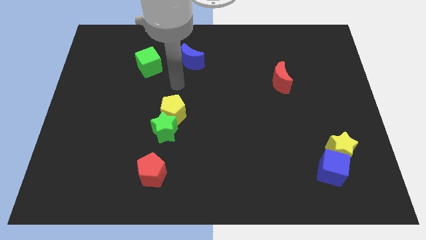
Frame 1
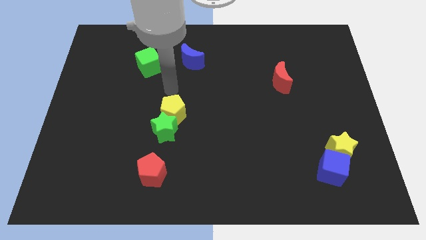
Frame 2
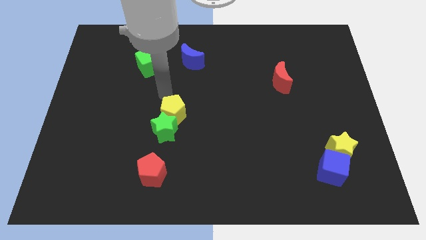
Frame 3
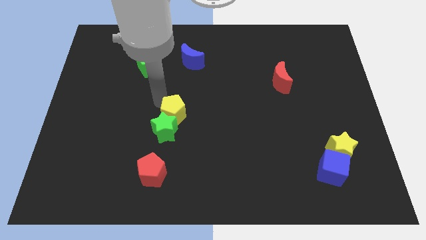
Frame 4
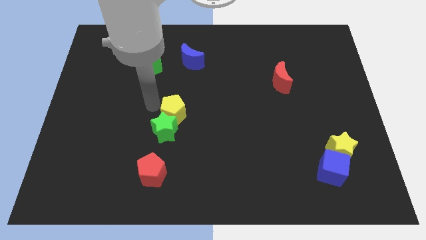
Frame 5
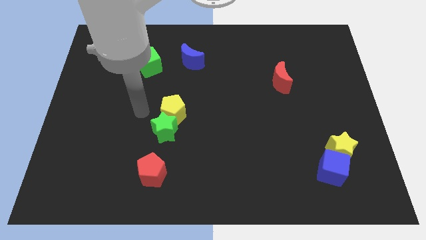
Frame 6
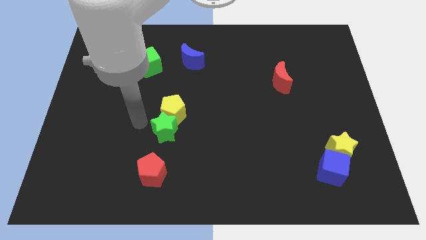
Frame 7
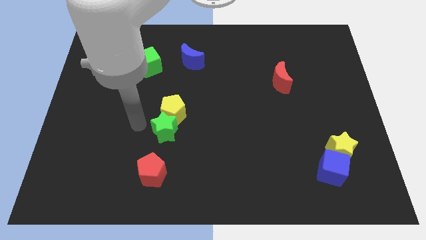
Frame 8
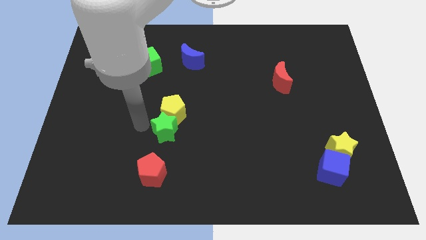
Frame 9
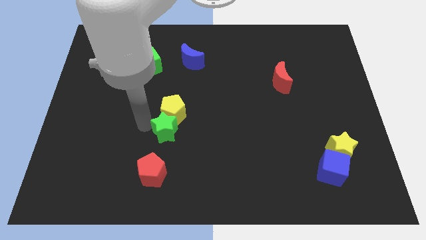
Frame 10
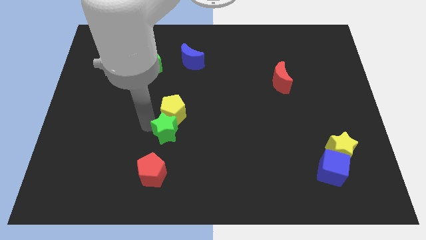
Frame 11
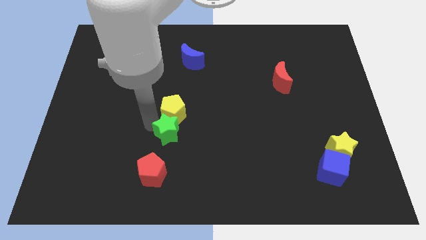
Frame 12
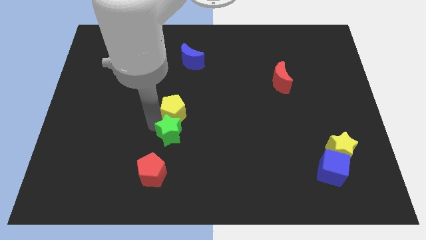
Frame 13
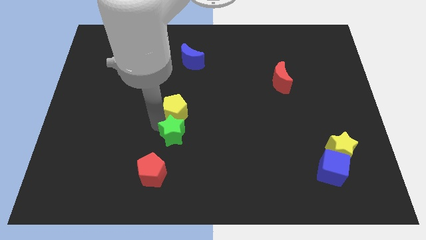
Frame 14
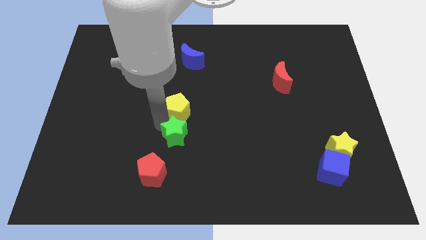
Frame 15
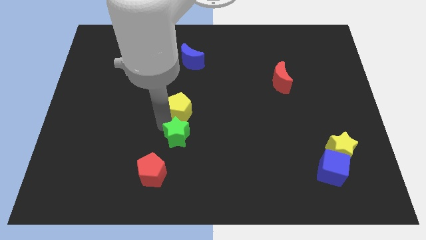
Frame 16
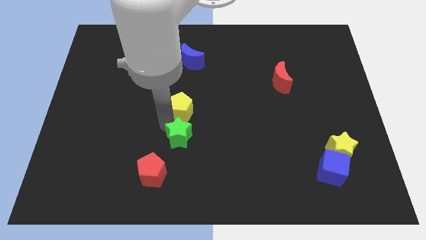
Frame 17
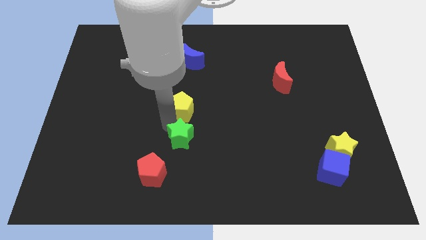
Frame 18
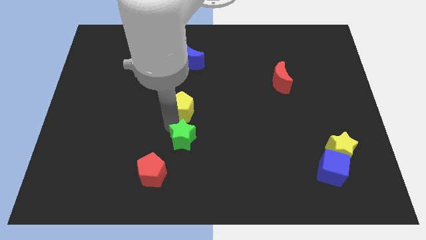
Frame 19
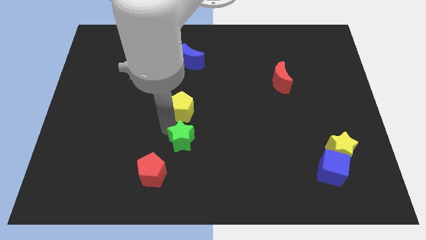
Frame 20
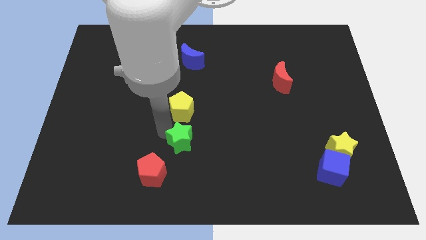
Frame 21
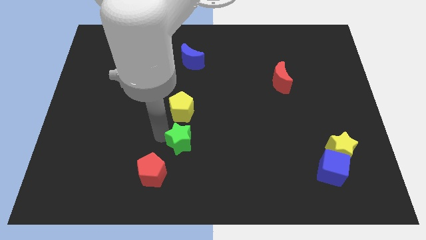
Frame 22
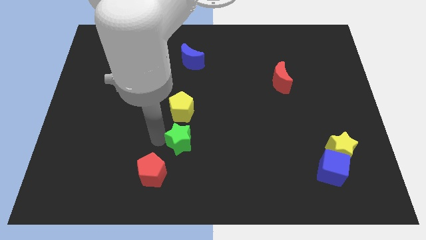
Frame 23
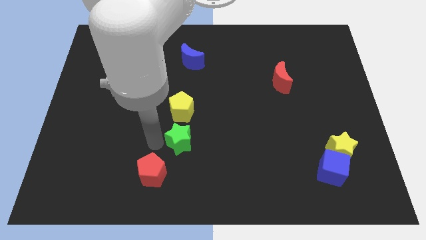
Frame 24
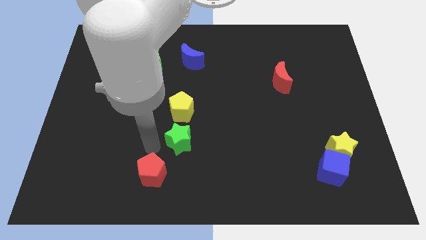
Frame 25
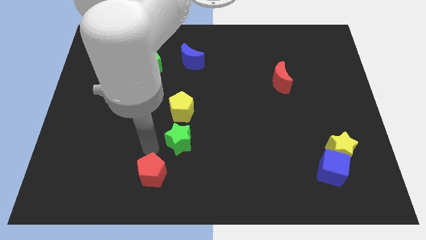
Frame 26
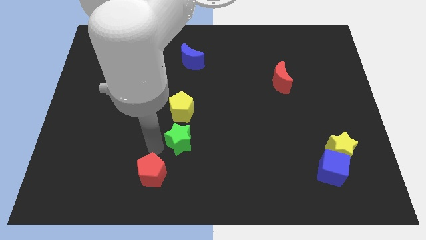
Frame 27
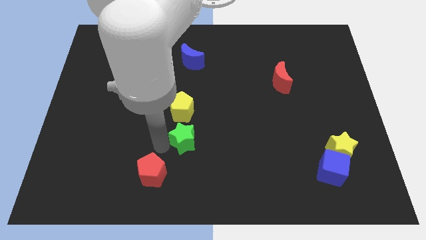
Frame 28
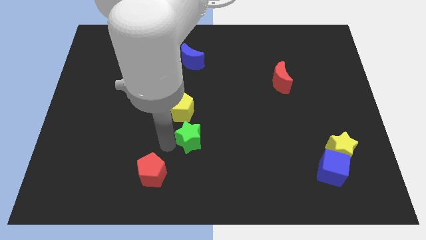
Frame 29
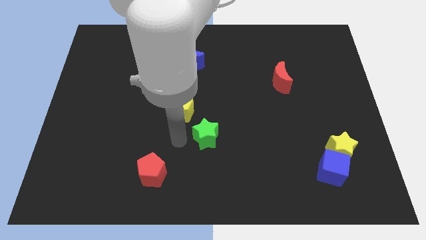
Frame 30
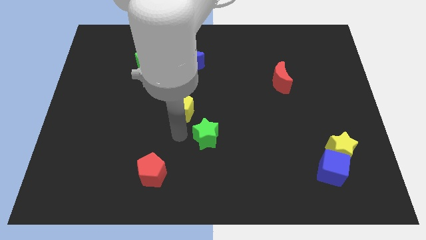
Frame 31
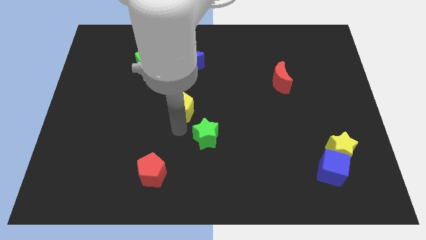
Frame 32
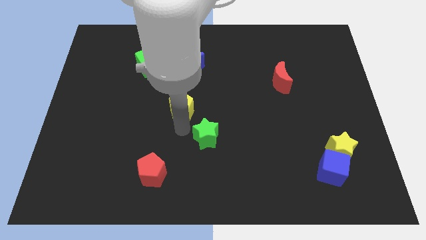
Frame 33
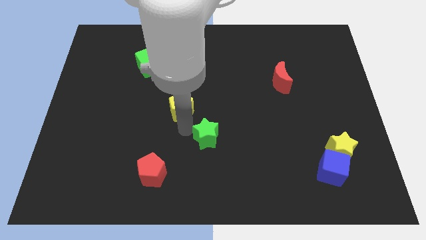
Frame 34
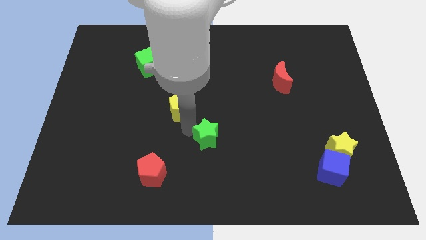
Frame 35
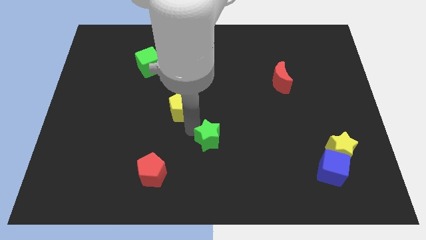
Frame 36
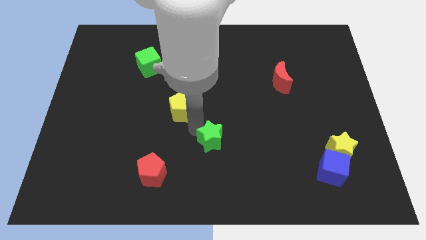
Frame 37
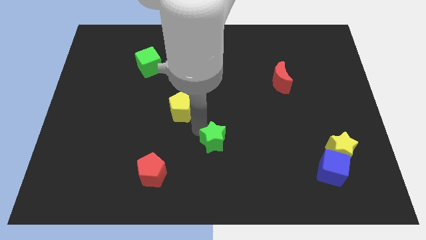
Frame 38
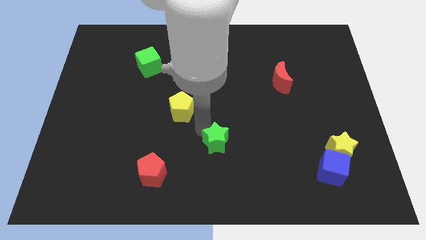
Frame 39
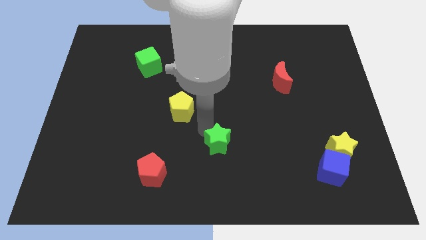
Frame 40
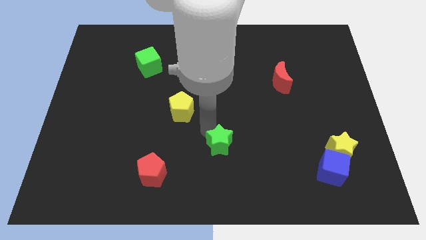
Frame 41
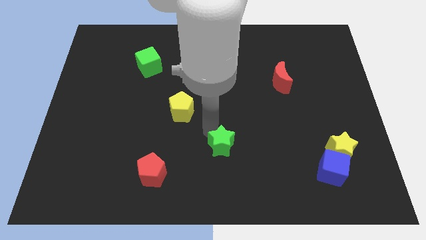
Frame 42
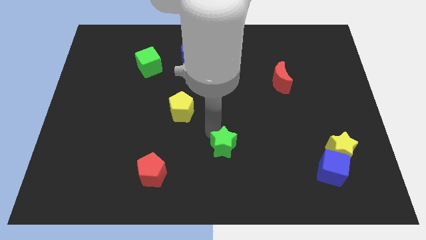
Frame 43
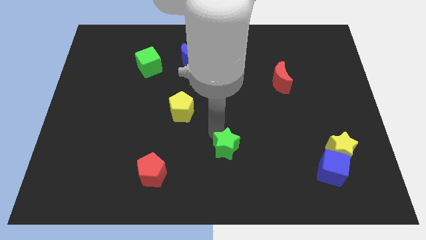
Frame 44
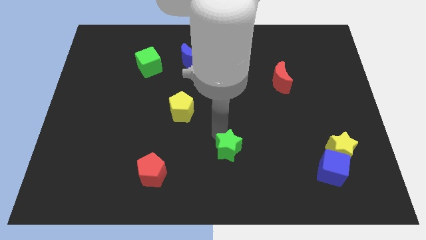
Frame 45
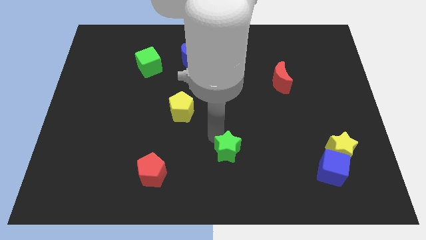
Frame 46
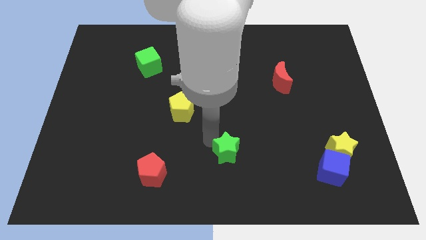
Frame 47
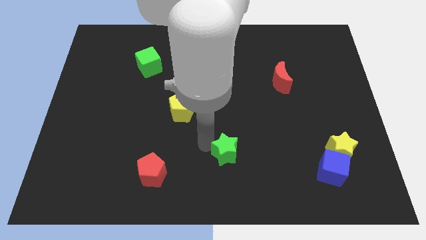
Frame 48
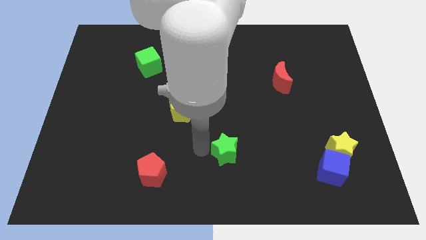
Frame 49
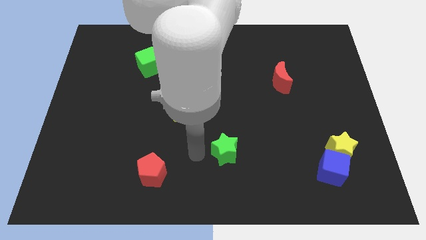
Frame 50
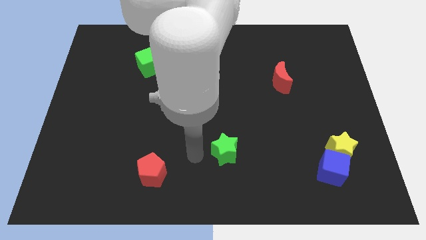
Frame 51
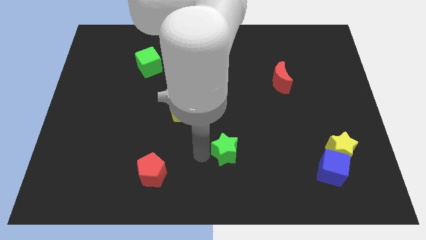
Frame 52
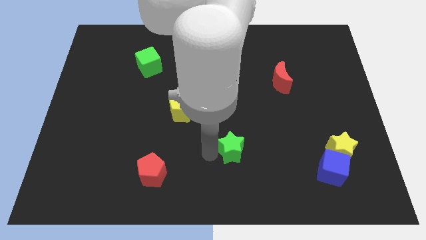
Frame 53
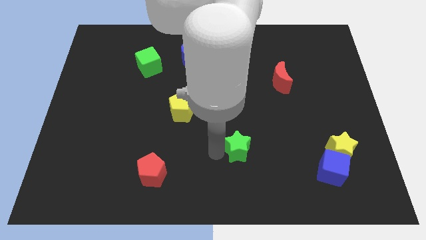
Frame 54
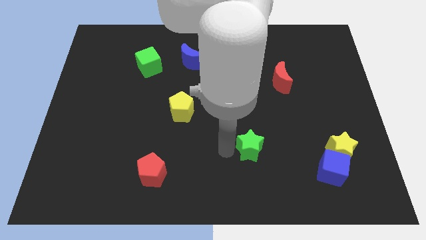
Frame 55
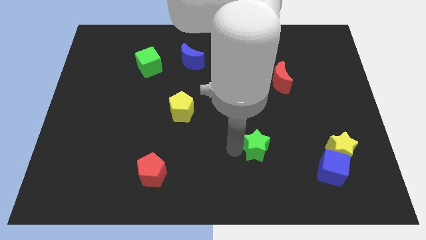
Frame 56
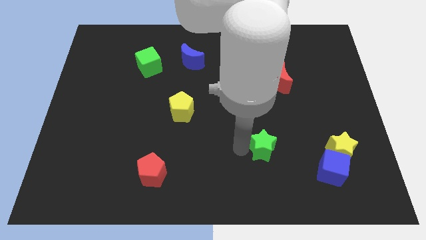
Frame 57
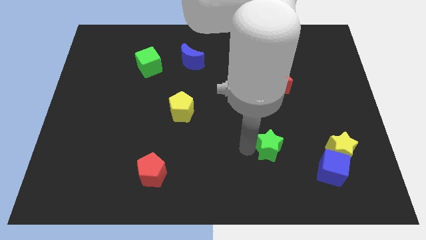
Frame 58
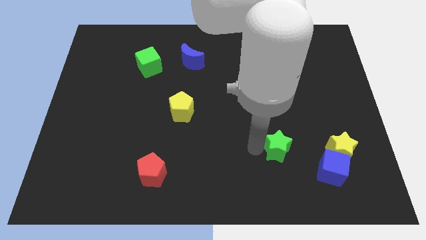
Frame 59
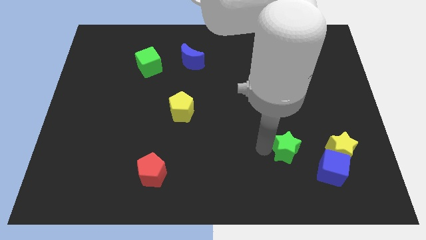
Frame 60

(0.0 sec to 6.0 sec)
push the green star to the top left of the blue cube

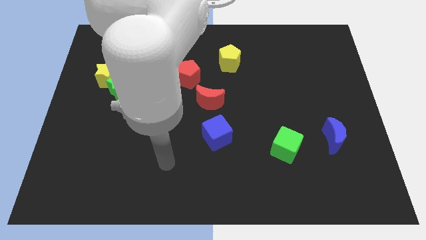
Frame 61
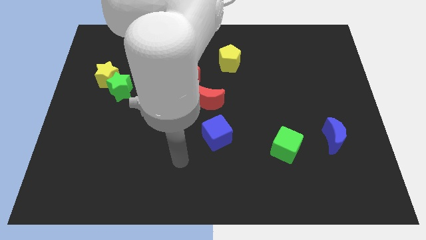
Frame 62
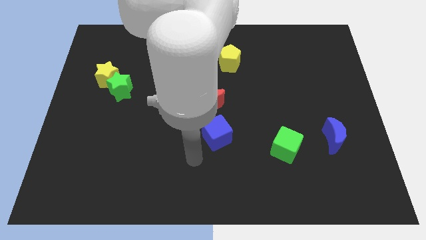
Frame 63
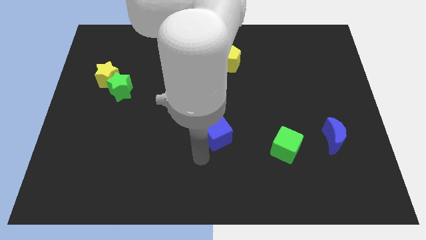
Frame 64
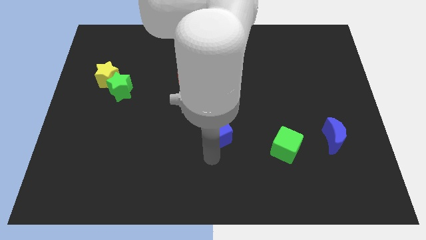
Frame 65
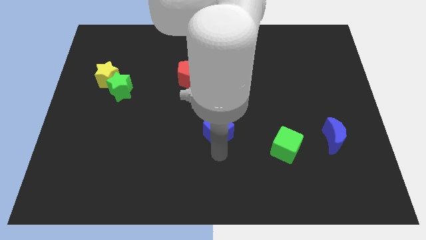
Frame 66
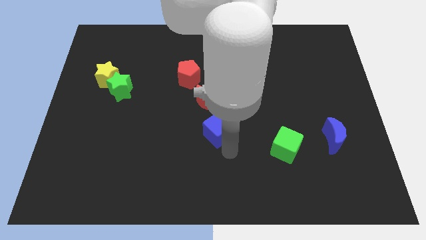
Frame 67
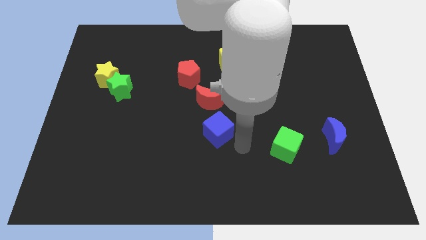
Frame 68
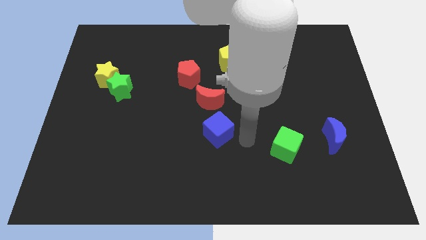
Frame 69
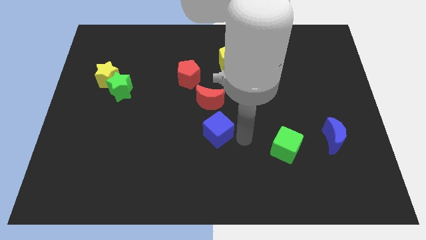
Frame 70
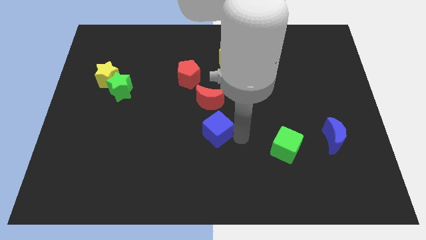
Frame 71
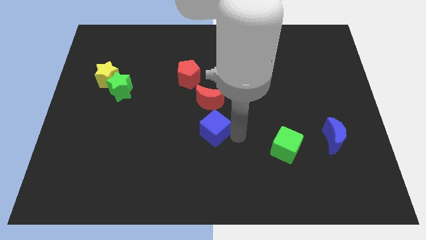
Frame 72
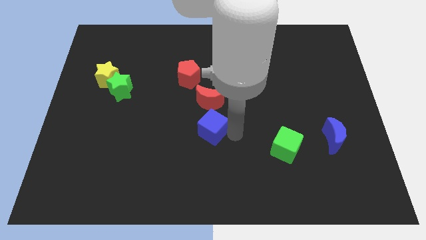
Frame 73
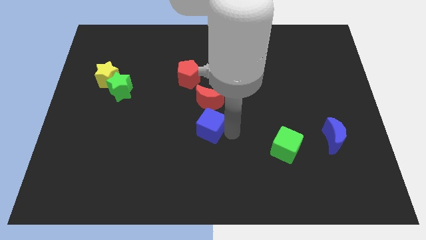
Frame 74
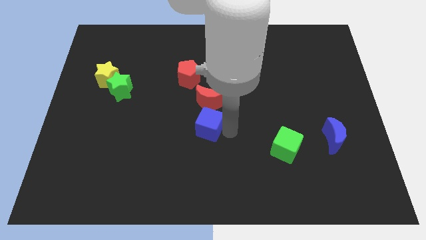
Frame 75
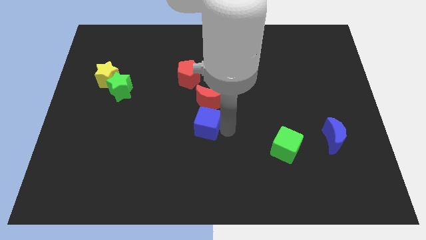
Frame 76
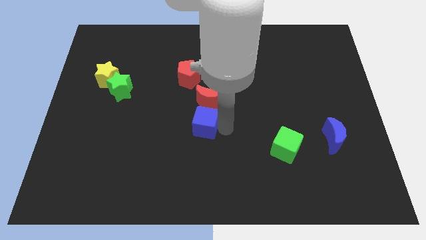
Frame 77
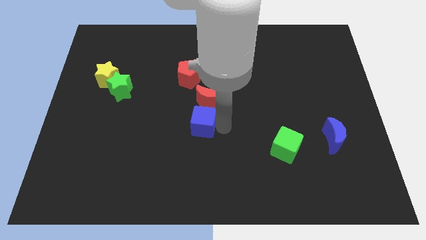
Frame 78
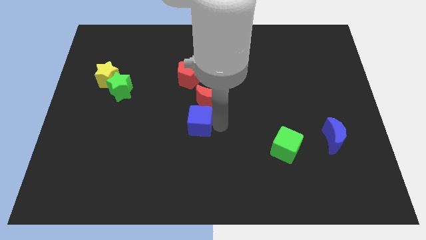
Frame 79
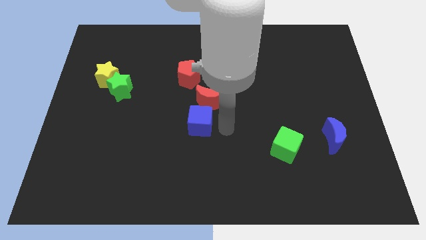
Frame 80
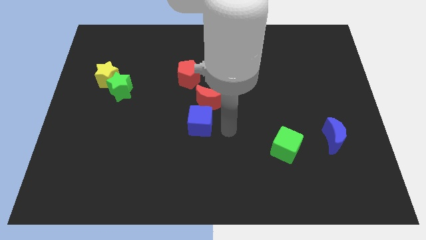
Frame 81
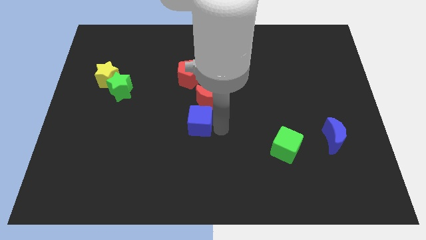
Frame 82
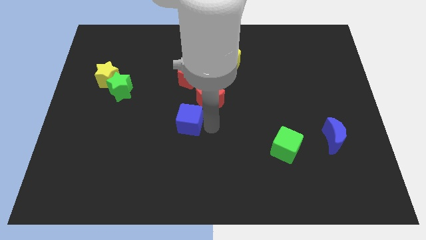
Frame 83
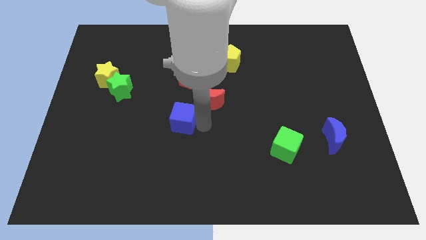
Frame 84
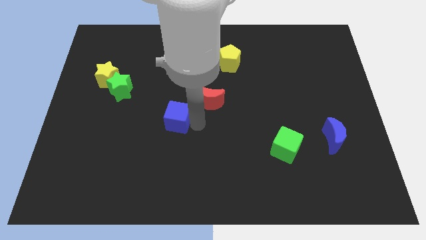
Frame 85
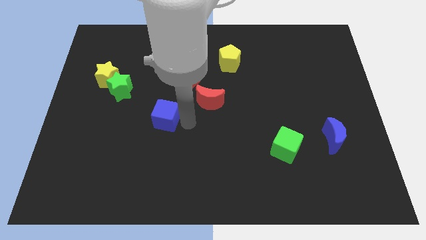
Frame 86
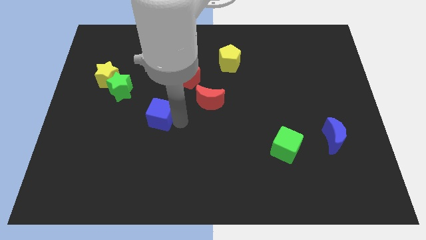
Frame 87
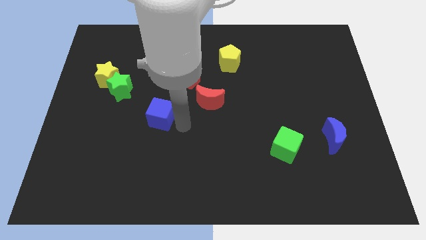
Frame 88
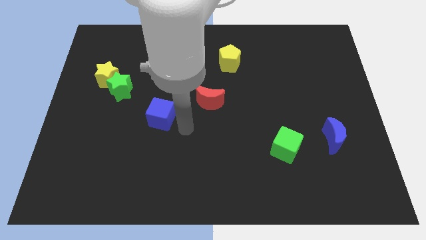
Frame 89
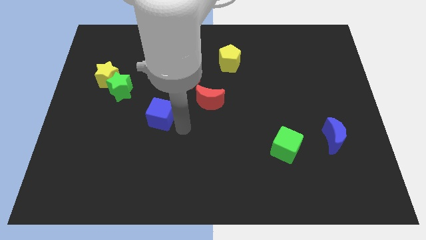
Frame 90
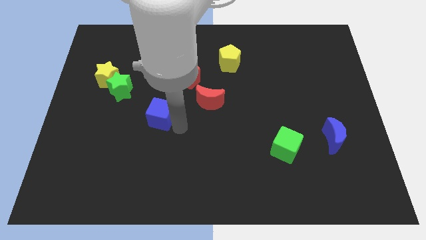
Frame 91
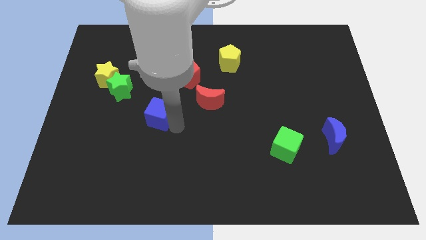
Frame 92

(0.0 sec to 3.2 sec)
slide the blue cube to the bottom right side of the green star
